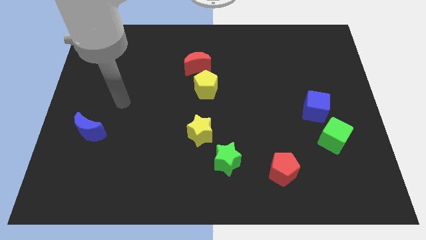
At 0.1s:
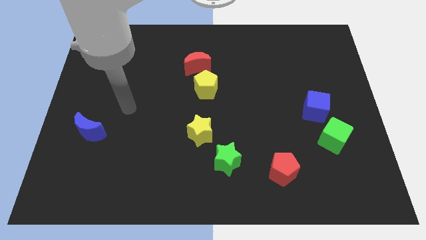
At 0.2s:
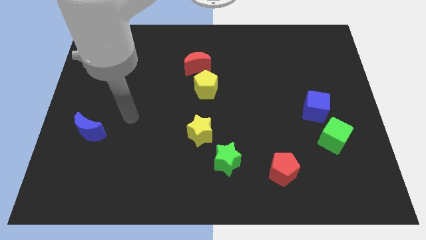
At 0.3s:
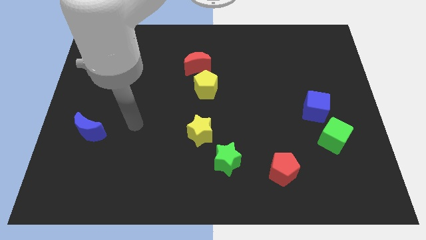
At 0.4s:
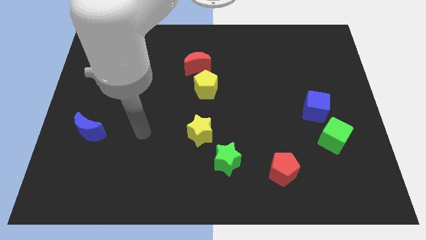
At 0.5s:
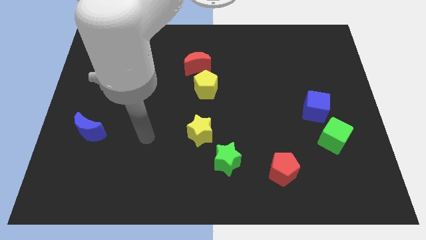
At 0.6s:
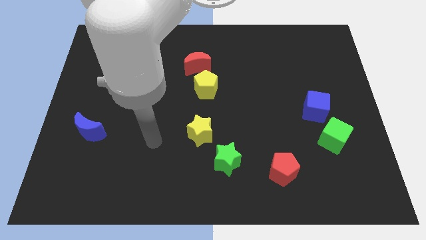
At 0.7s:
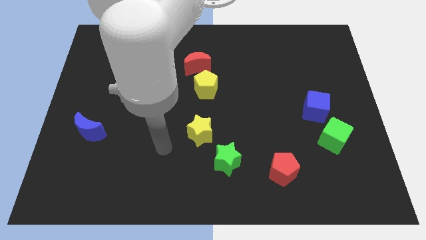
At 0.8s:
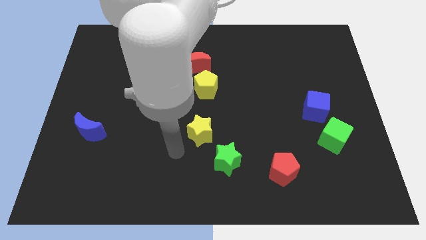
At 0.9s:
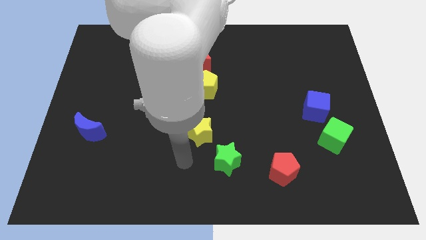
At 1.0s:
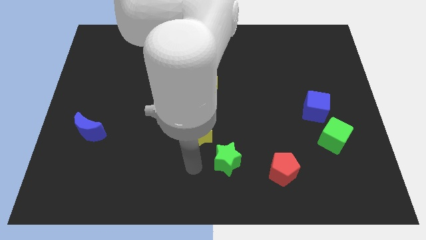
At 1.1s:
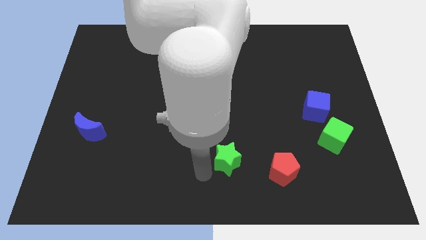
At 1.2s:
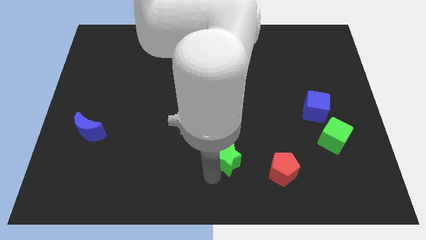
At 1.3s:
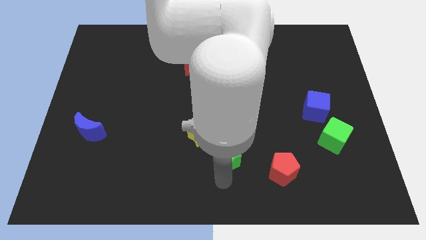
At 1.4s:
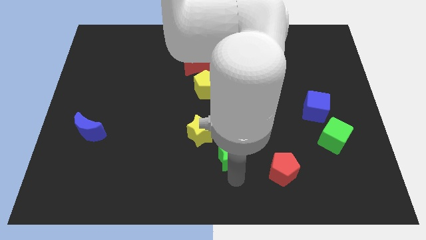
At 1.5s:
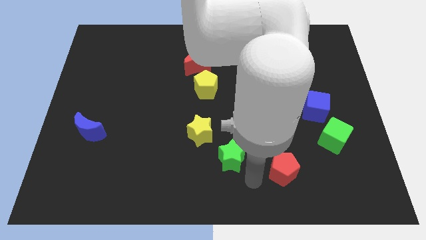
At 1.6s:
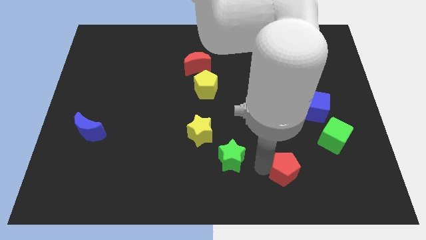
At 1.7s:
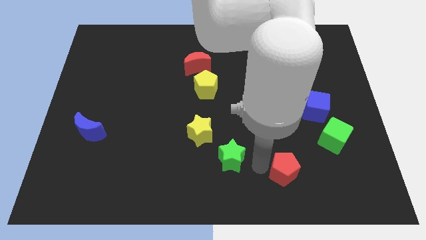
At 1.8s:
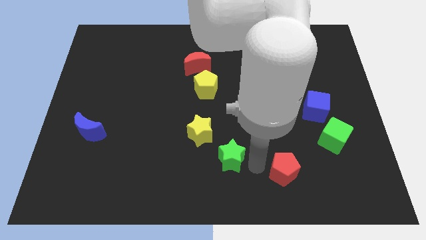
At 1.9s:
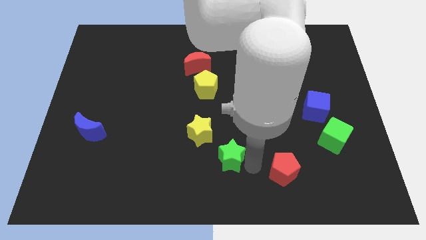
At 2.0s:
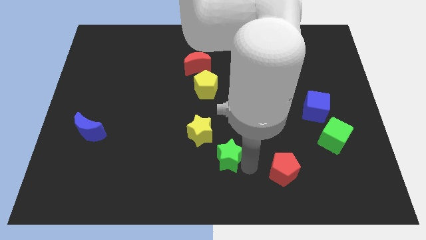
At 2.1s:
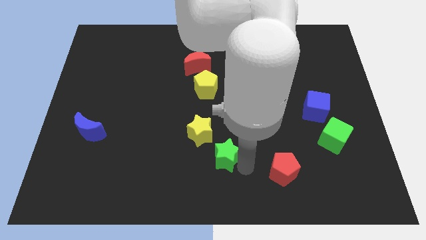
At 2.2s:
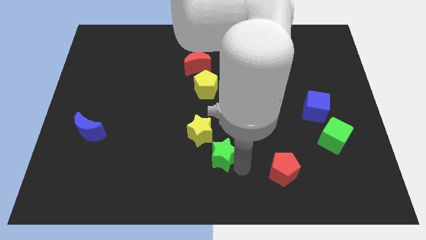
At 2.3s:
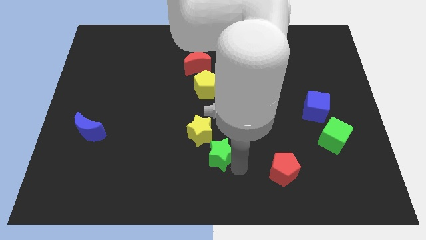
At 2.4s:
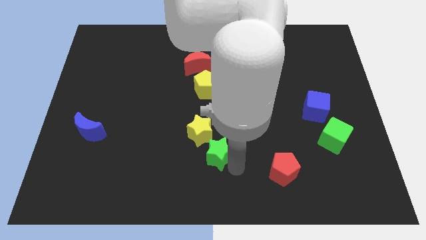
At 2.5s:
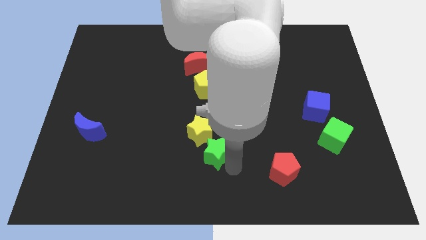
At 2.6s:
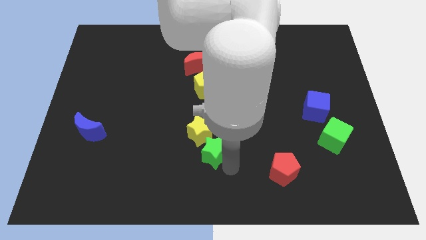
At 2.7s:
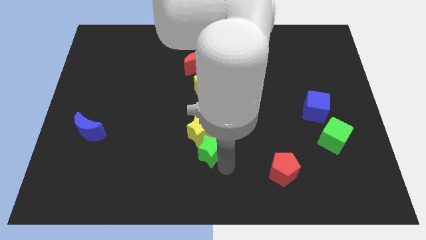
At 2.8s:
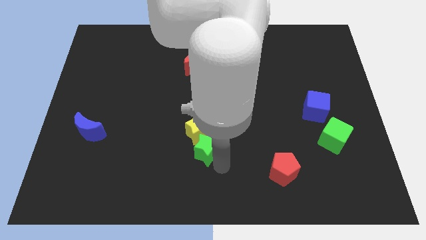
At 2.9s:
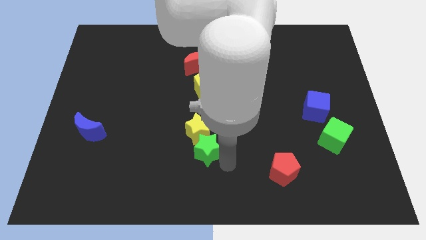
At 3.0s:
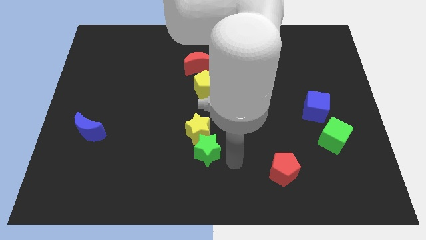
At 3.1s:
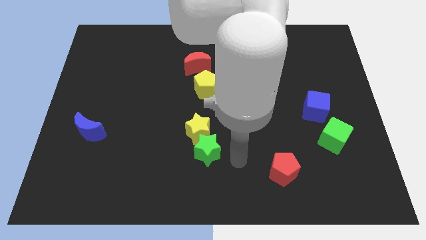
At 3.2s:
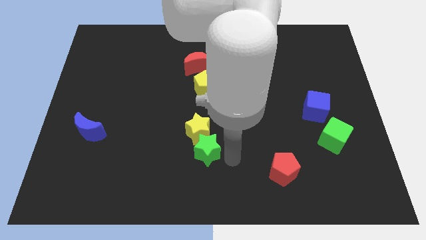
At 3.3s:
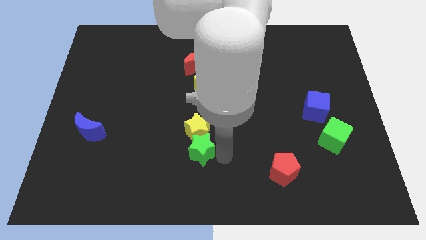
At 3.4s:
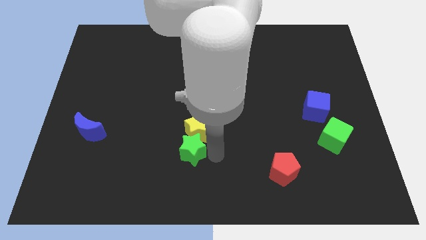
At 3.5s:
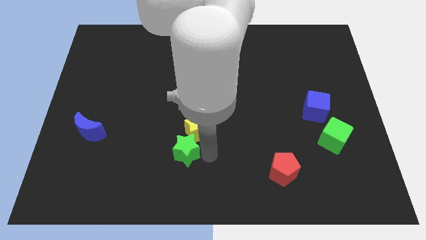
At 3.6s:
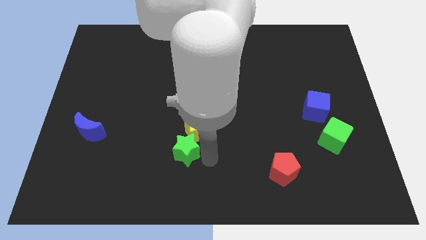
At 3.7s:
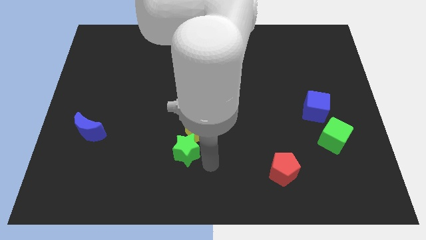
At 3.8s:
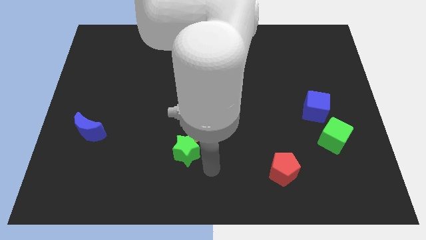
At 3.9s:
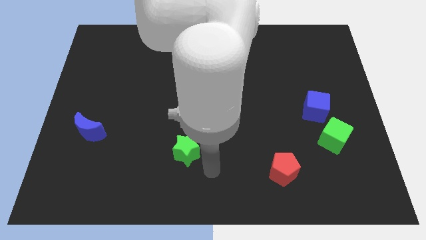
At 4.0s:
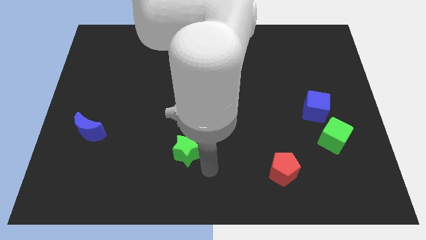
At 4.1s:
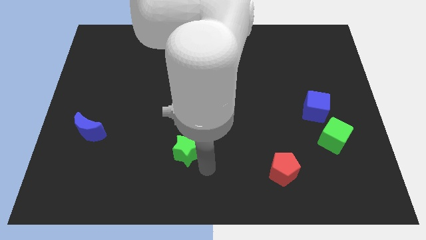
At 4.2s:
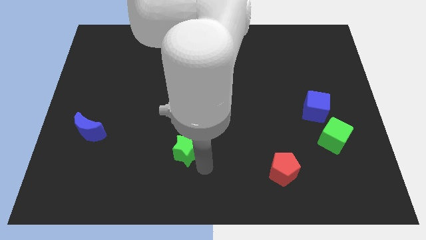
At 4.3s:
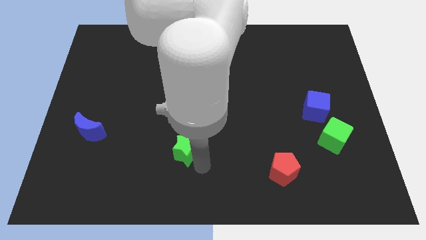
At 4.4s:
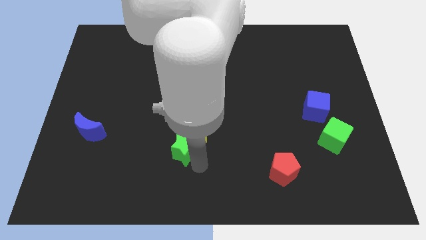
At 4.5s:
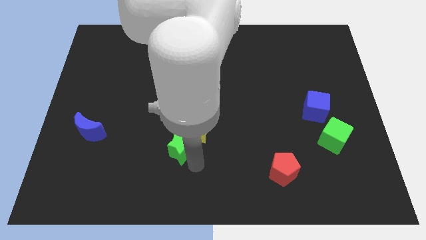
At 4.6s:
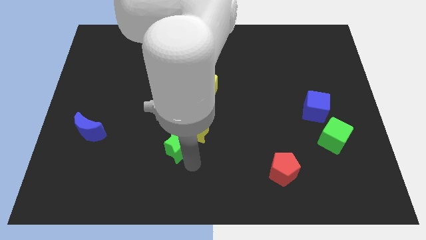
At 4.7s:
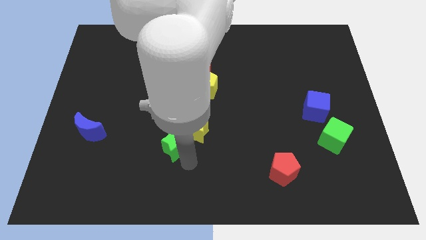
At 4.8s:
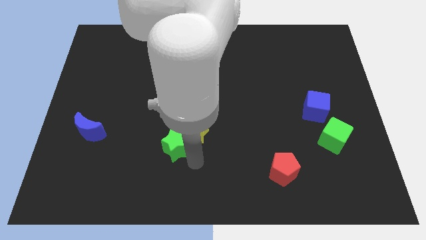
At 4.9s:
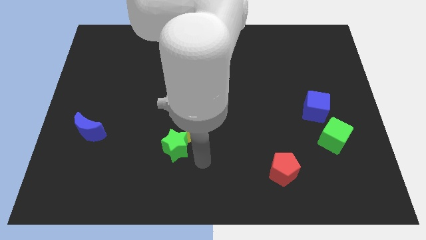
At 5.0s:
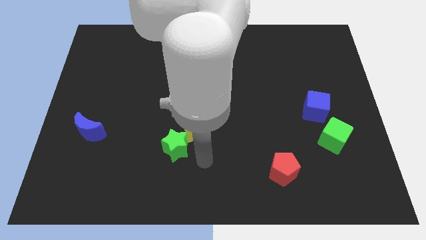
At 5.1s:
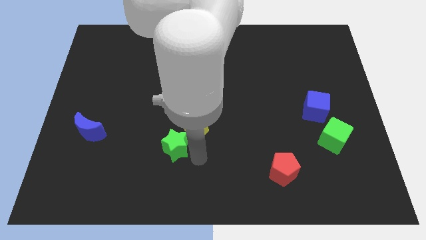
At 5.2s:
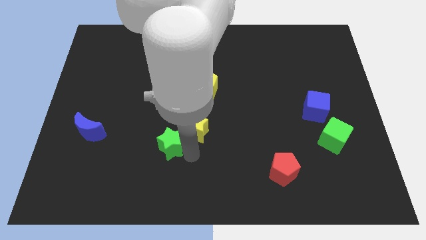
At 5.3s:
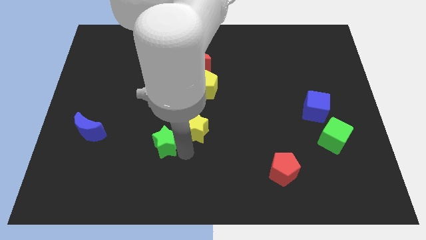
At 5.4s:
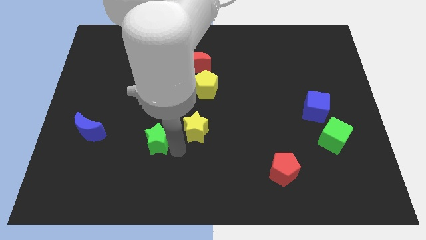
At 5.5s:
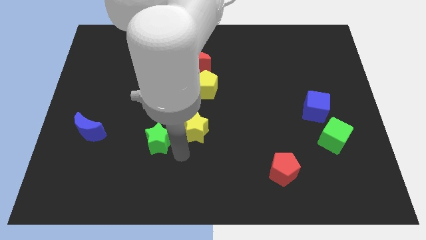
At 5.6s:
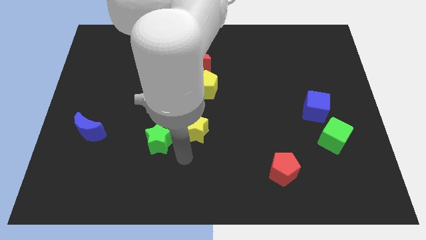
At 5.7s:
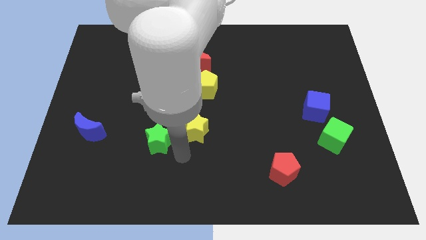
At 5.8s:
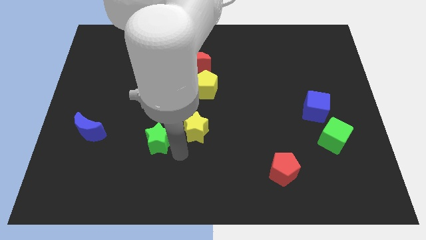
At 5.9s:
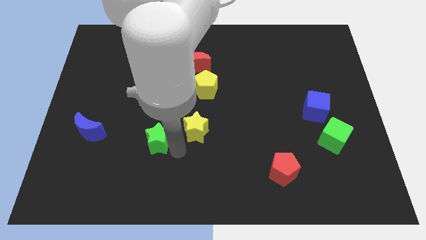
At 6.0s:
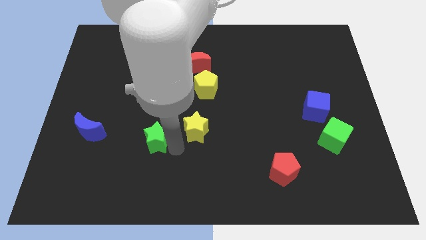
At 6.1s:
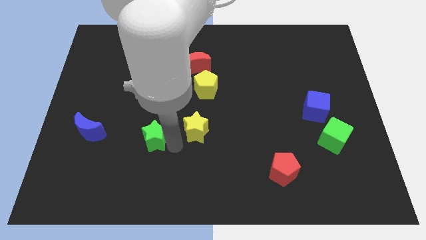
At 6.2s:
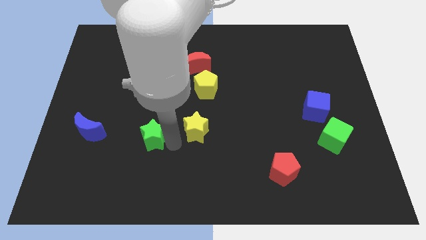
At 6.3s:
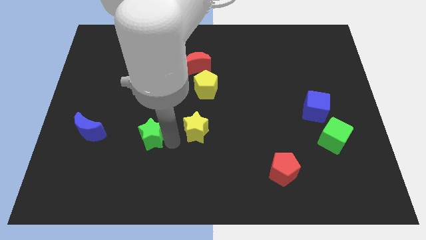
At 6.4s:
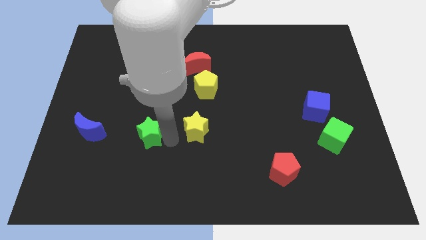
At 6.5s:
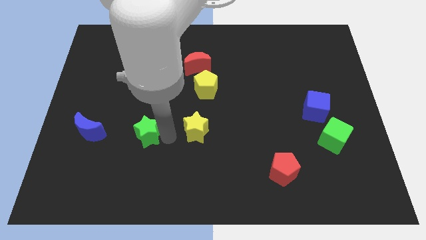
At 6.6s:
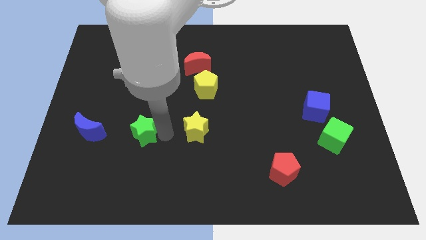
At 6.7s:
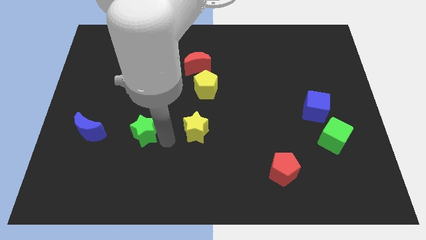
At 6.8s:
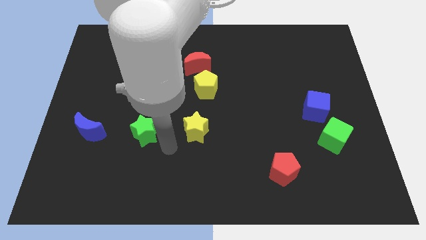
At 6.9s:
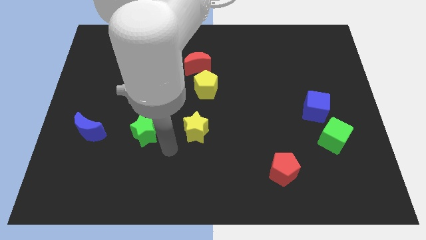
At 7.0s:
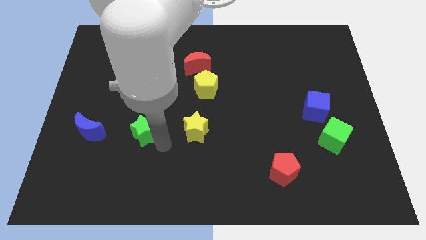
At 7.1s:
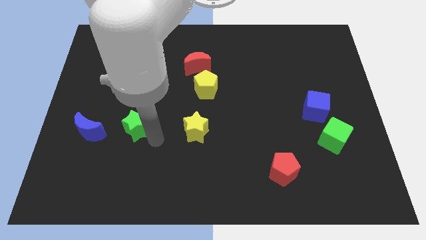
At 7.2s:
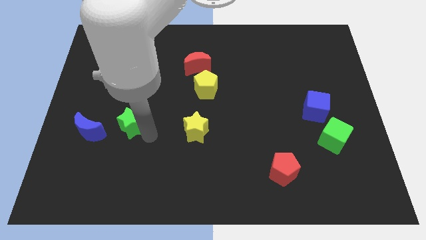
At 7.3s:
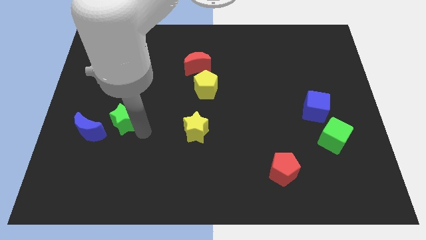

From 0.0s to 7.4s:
push the green star diagonally up and to the right of the blue moon

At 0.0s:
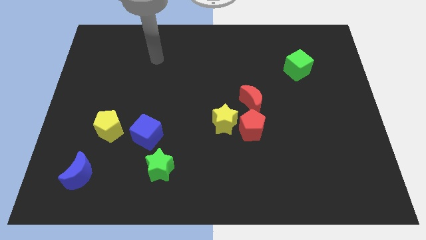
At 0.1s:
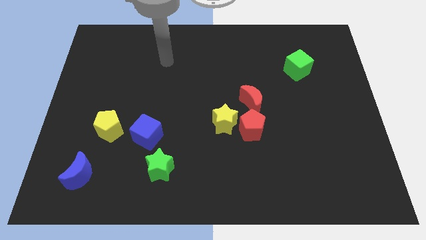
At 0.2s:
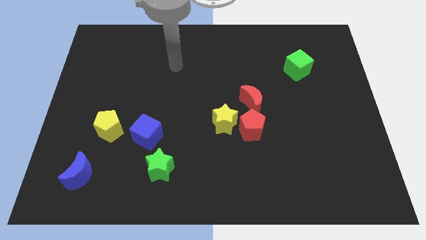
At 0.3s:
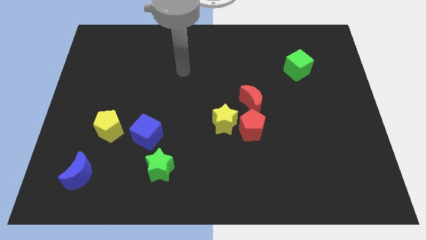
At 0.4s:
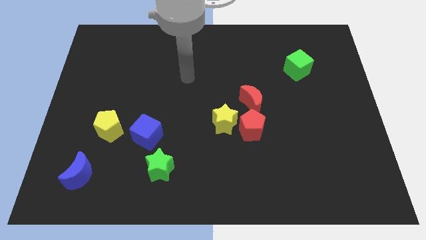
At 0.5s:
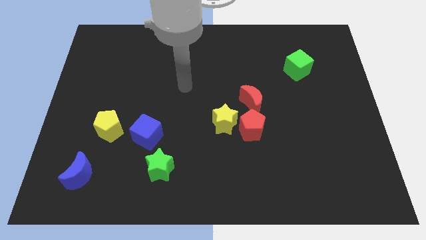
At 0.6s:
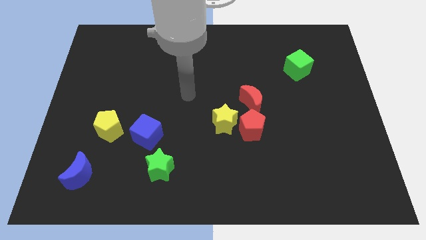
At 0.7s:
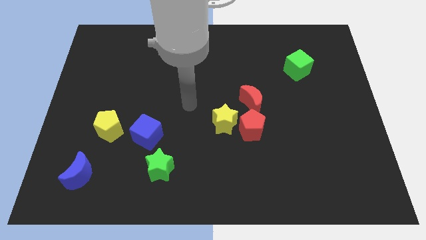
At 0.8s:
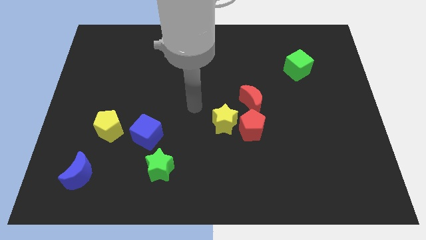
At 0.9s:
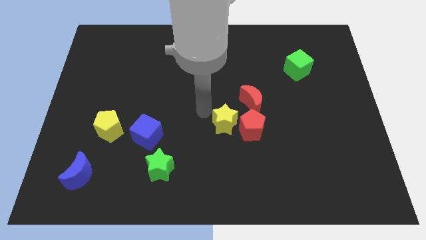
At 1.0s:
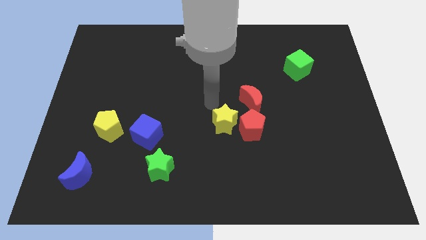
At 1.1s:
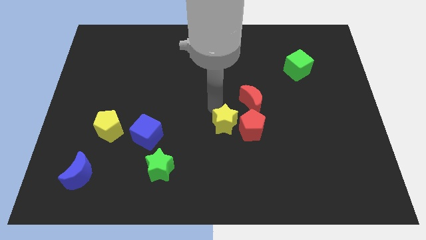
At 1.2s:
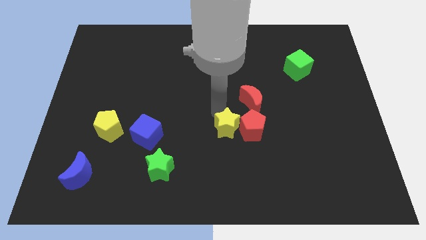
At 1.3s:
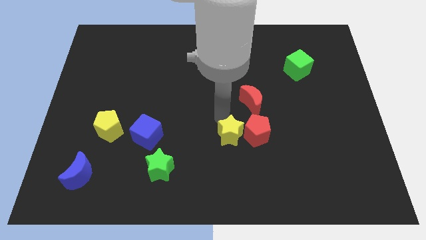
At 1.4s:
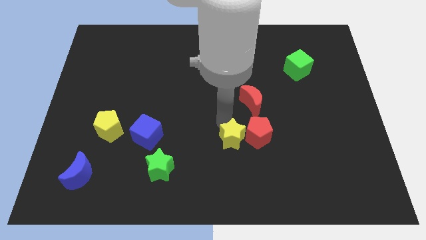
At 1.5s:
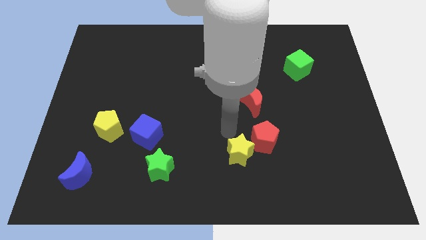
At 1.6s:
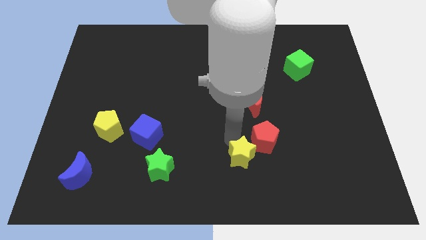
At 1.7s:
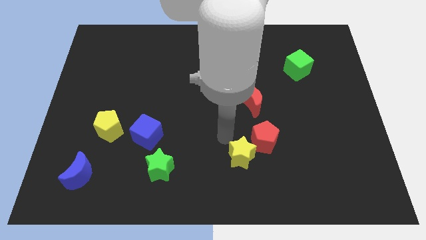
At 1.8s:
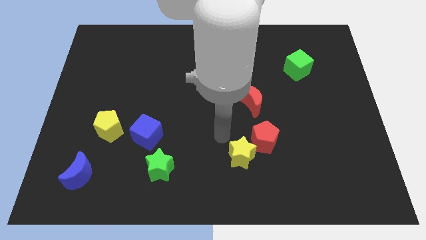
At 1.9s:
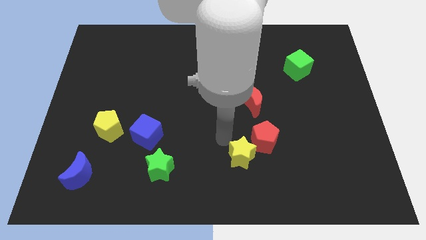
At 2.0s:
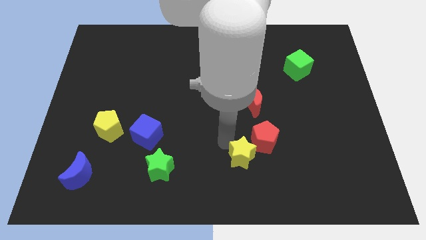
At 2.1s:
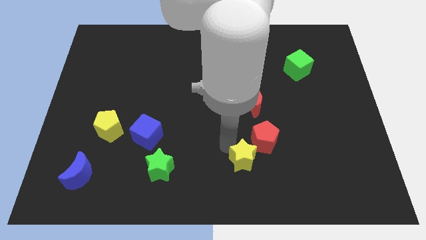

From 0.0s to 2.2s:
move the yellow star to the bottom side of the red pentagon
